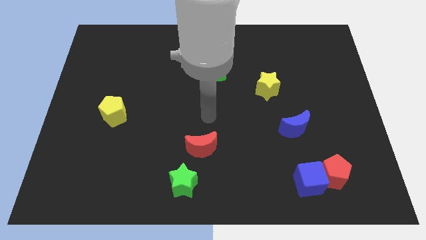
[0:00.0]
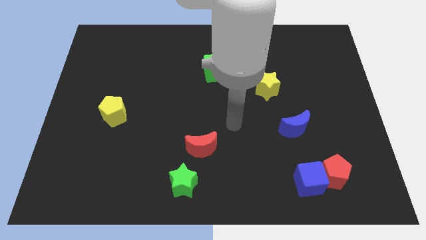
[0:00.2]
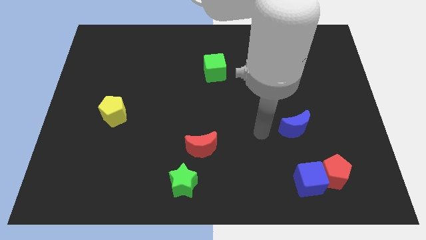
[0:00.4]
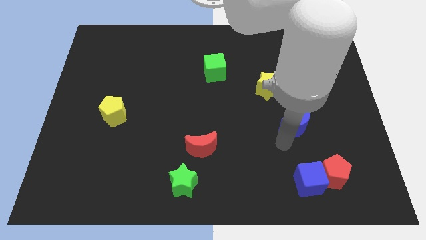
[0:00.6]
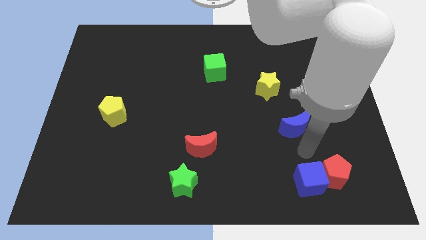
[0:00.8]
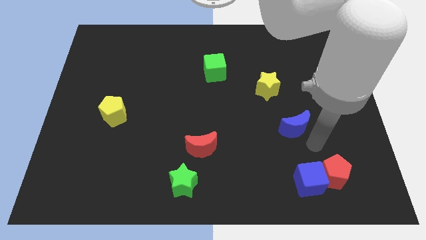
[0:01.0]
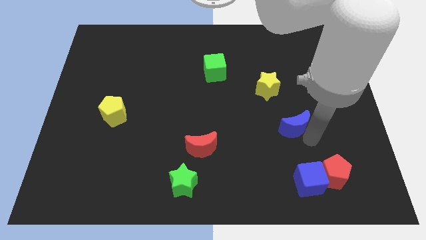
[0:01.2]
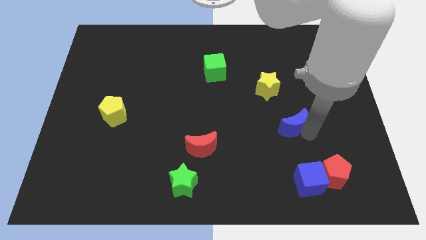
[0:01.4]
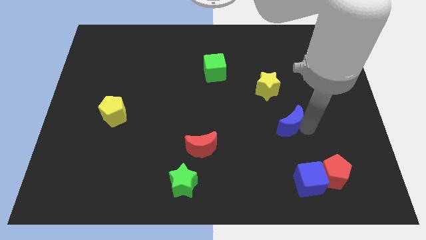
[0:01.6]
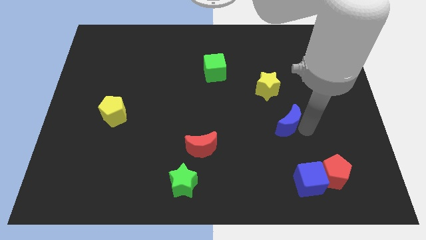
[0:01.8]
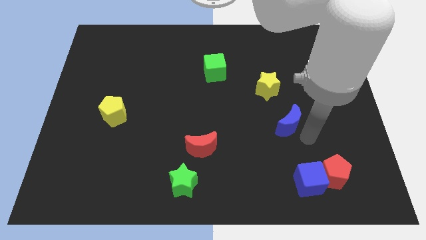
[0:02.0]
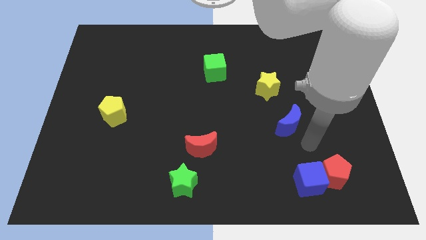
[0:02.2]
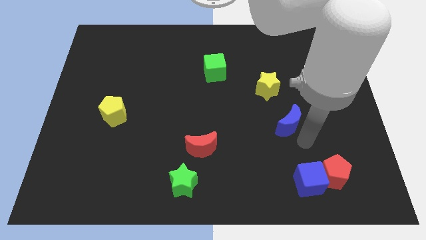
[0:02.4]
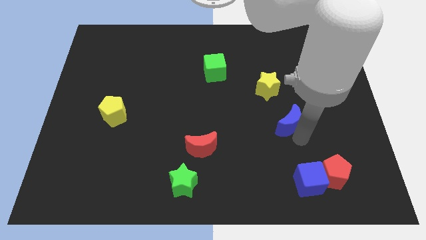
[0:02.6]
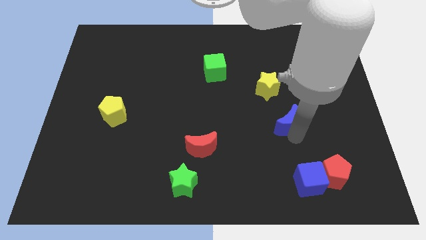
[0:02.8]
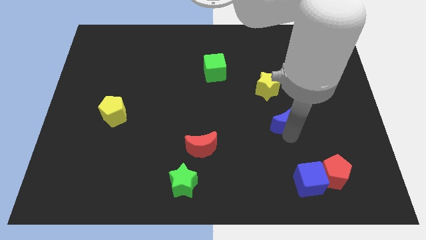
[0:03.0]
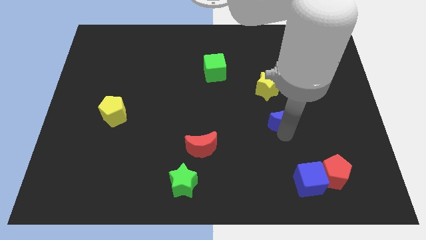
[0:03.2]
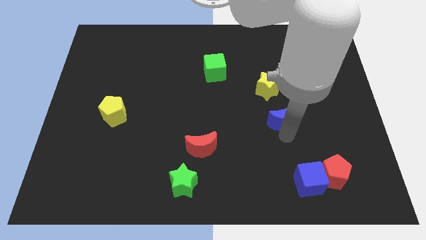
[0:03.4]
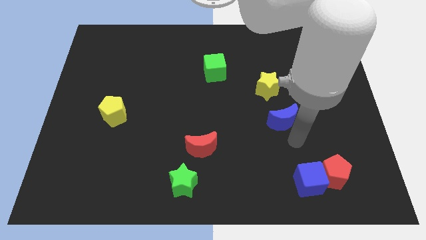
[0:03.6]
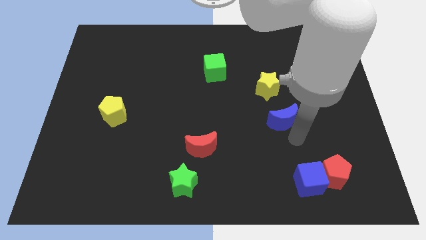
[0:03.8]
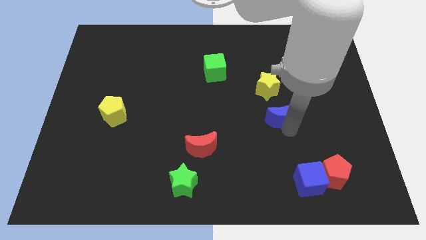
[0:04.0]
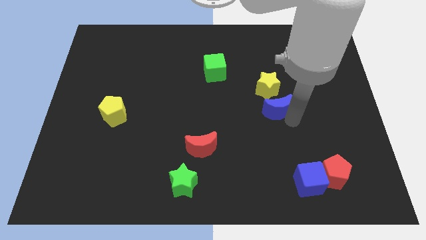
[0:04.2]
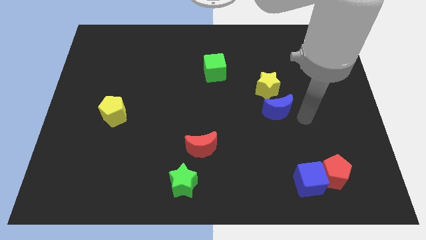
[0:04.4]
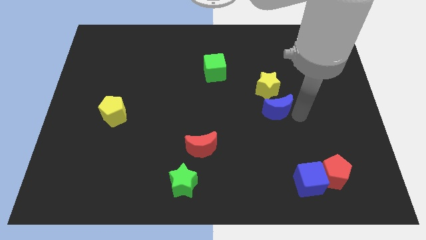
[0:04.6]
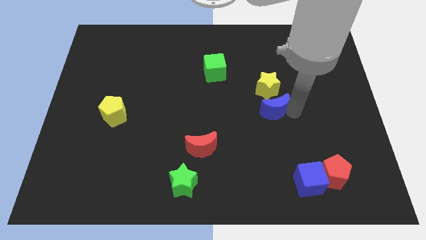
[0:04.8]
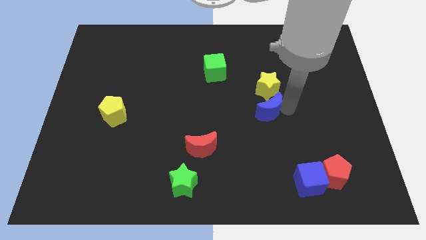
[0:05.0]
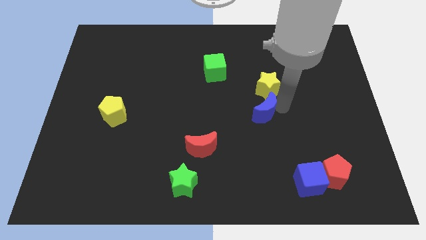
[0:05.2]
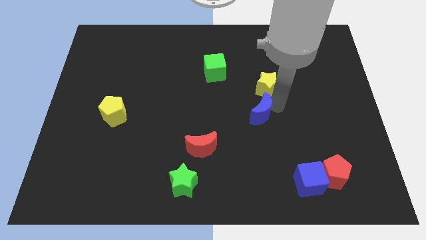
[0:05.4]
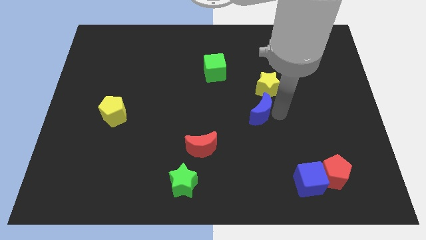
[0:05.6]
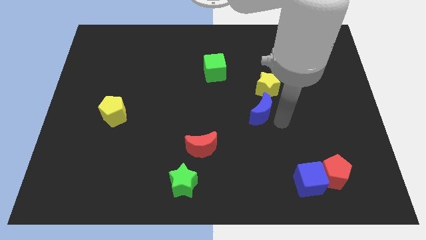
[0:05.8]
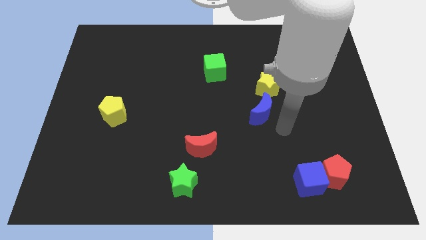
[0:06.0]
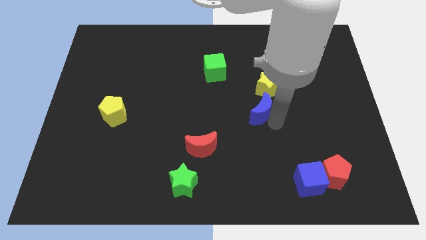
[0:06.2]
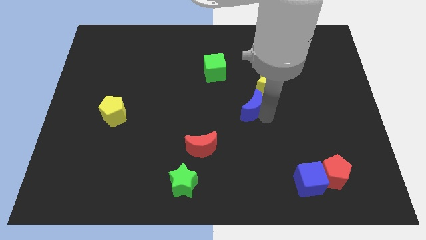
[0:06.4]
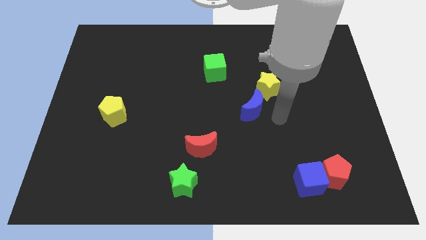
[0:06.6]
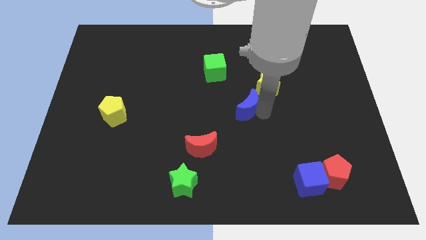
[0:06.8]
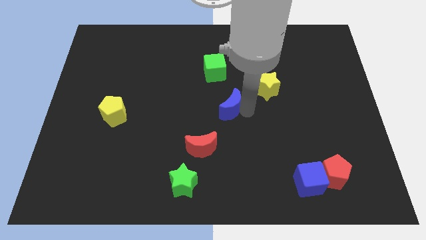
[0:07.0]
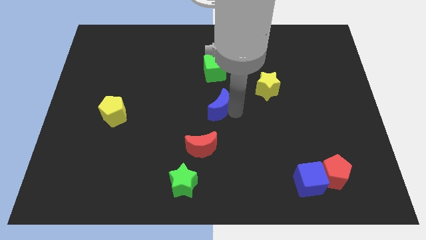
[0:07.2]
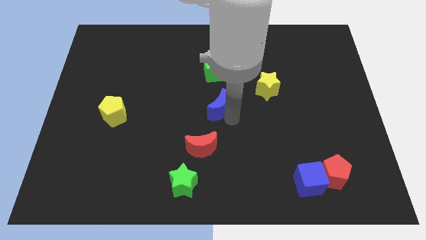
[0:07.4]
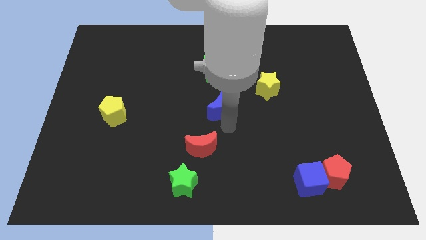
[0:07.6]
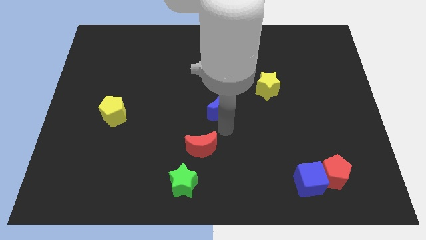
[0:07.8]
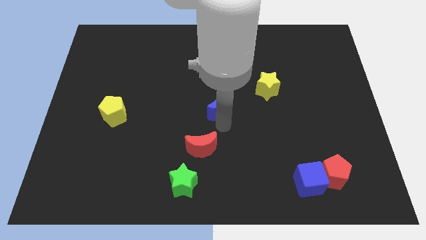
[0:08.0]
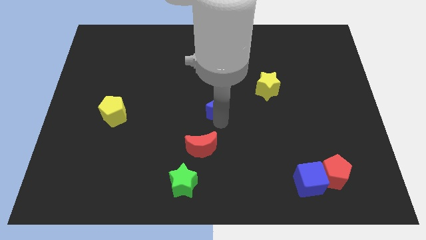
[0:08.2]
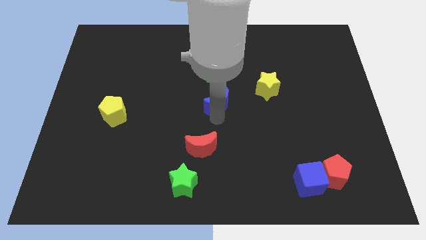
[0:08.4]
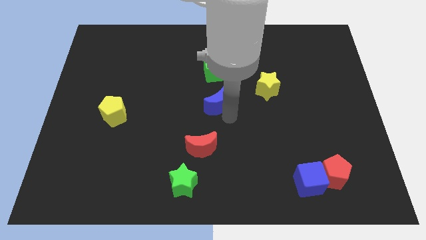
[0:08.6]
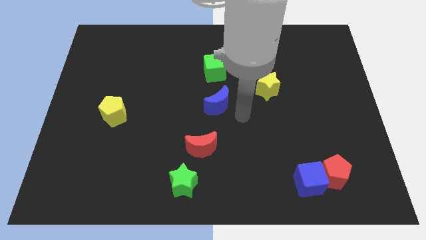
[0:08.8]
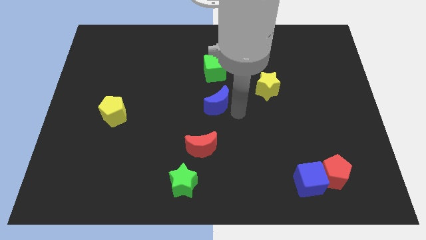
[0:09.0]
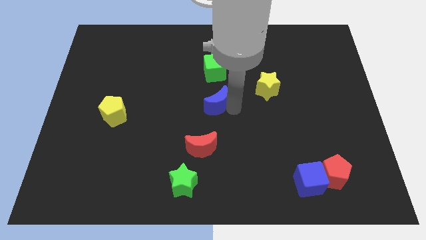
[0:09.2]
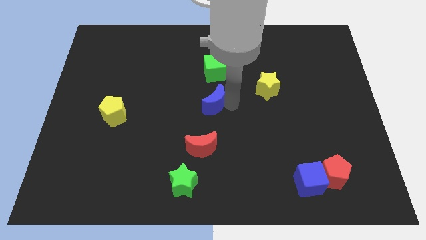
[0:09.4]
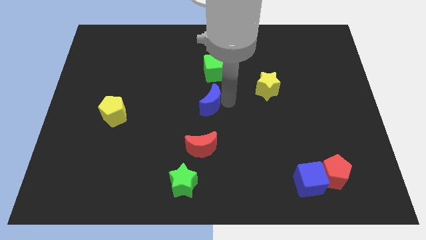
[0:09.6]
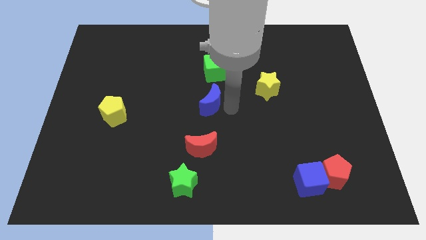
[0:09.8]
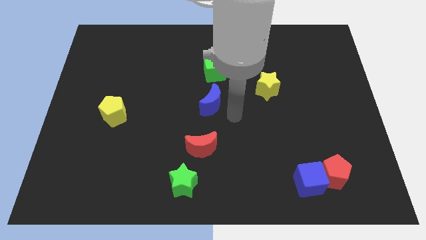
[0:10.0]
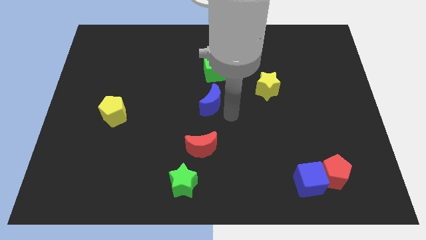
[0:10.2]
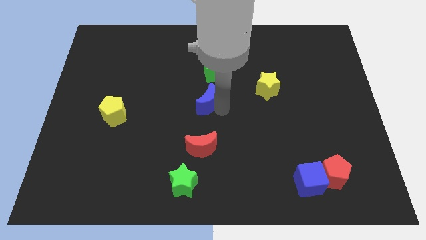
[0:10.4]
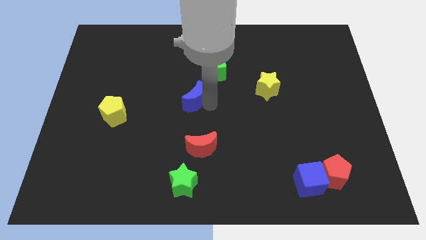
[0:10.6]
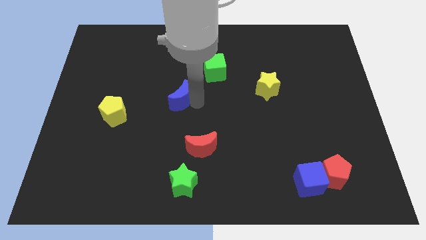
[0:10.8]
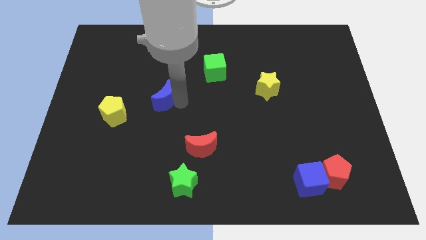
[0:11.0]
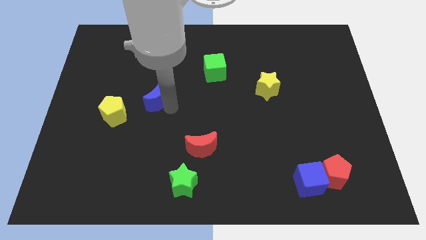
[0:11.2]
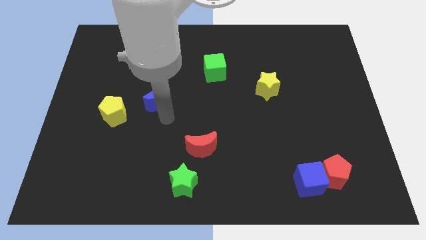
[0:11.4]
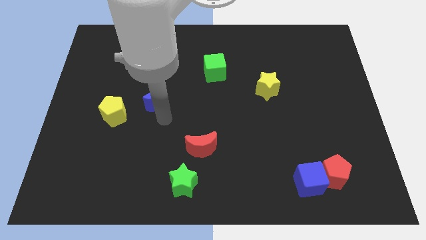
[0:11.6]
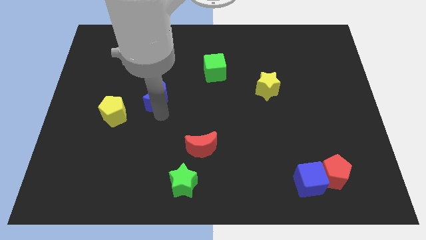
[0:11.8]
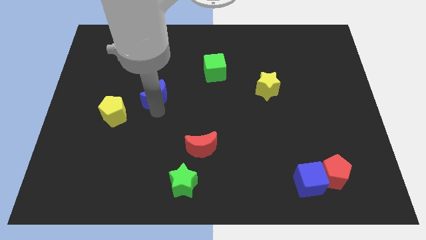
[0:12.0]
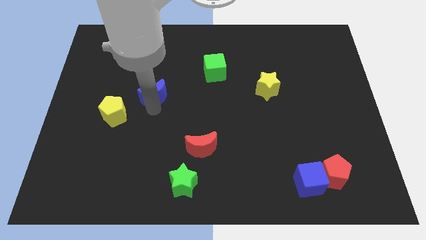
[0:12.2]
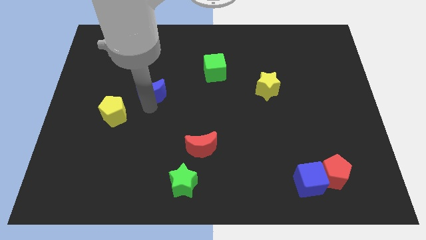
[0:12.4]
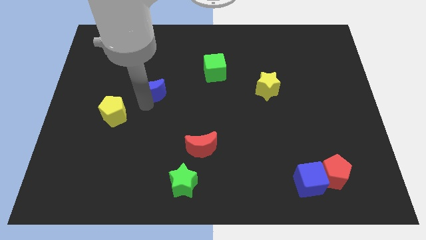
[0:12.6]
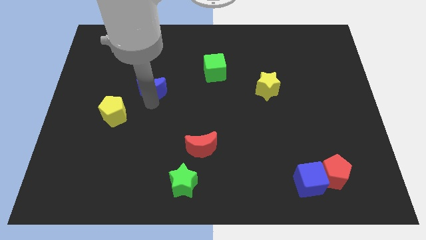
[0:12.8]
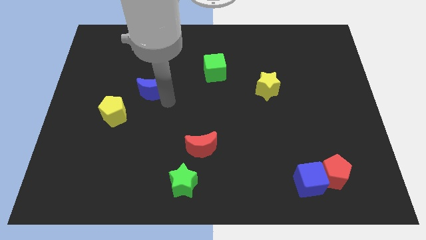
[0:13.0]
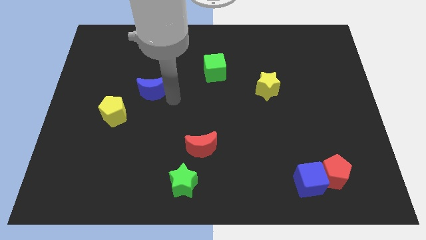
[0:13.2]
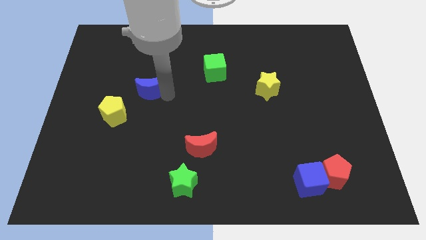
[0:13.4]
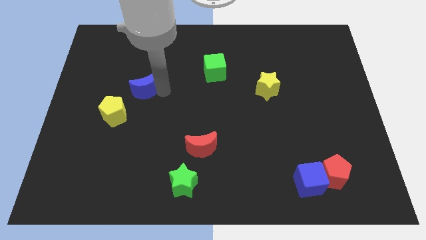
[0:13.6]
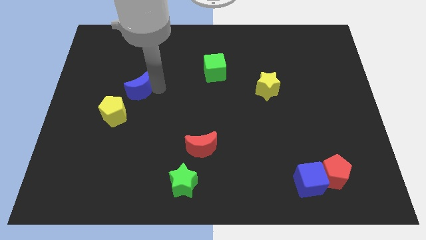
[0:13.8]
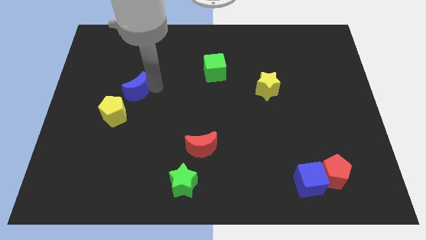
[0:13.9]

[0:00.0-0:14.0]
move the blue moon to the top of the yellow pentagon

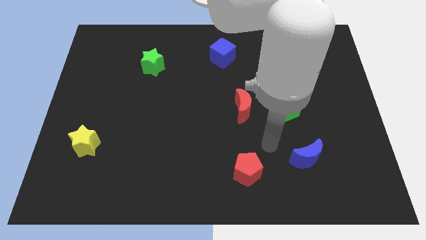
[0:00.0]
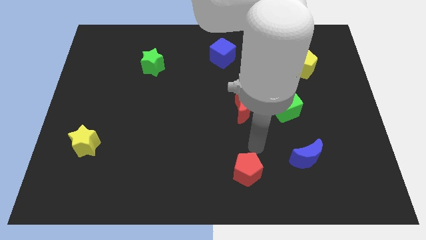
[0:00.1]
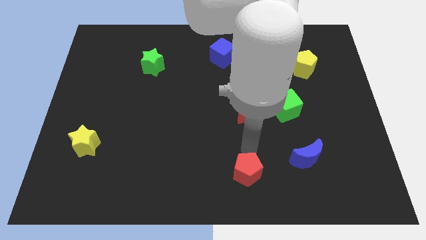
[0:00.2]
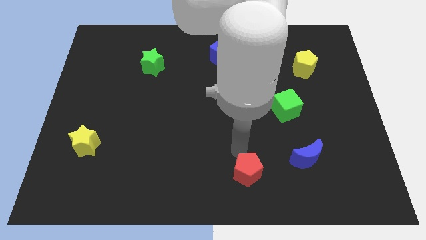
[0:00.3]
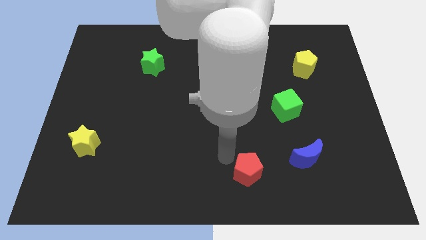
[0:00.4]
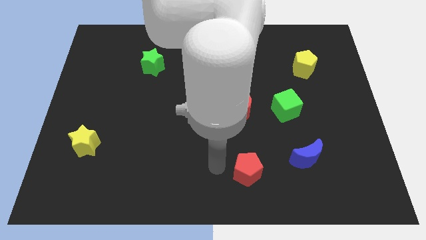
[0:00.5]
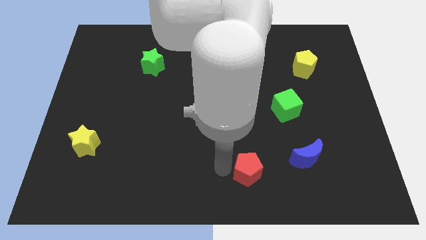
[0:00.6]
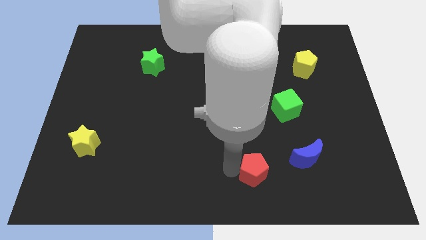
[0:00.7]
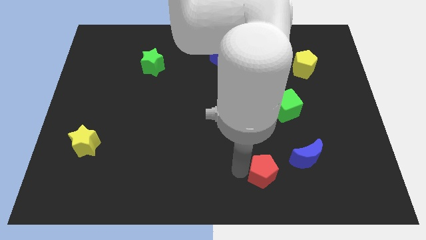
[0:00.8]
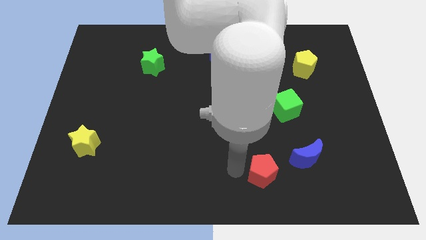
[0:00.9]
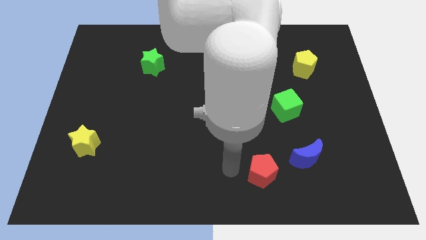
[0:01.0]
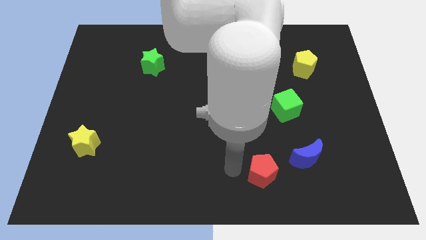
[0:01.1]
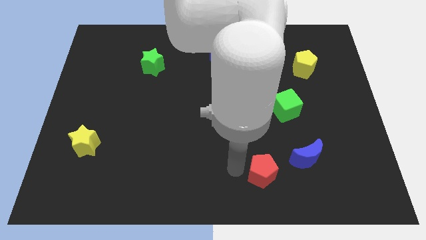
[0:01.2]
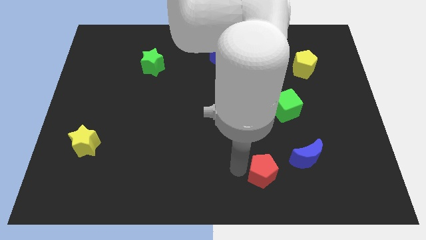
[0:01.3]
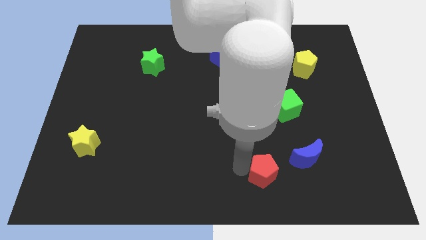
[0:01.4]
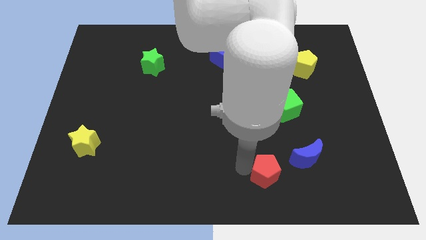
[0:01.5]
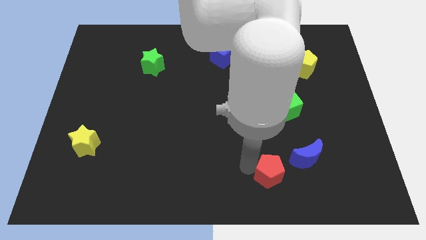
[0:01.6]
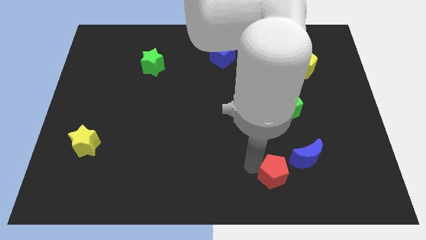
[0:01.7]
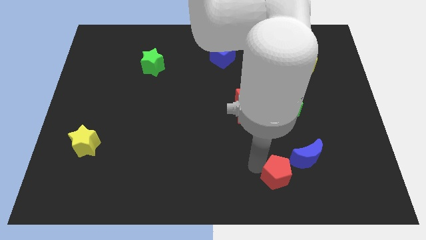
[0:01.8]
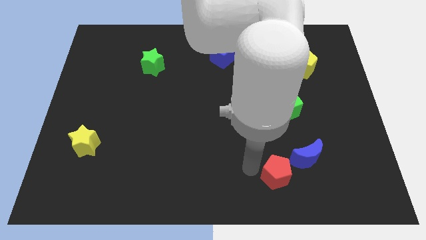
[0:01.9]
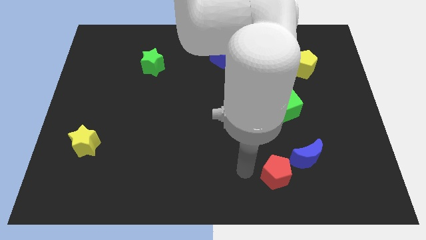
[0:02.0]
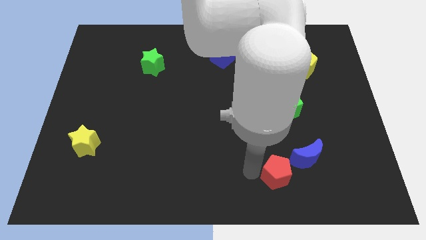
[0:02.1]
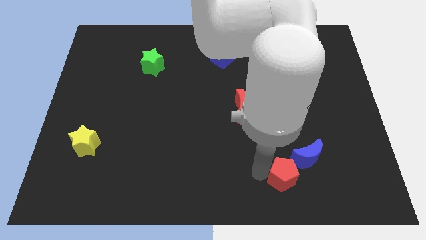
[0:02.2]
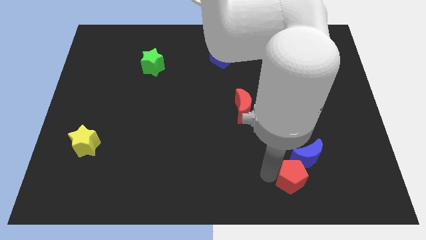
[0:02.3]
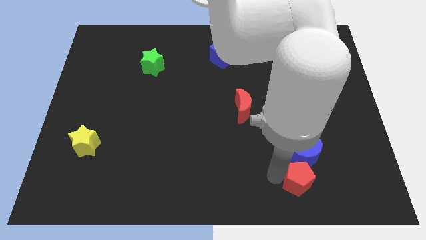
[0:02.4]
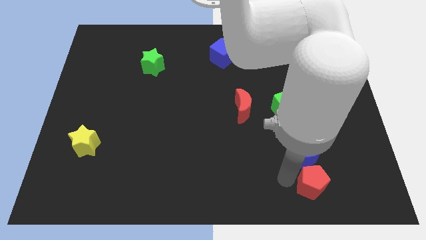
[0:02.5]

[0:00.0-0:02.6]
push the red pentagon to the bottom right of the blue moon
